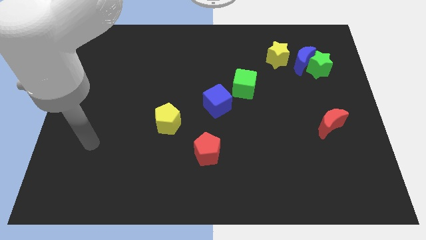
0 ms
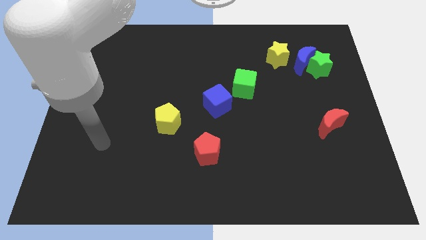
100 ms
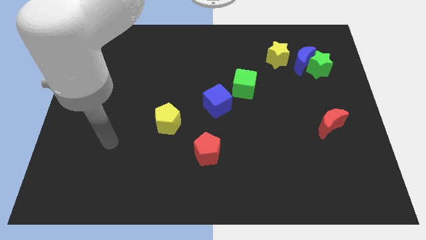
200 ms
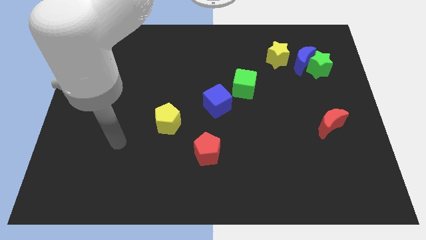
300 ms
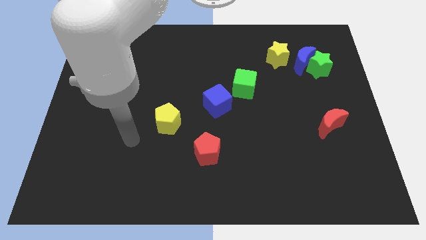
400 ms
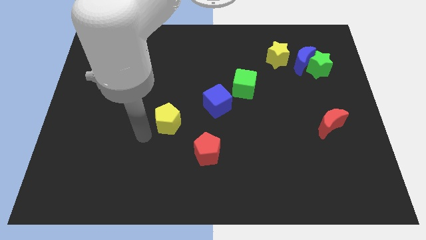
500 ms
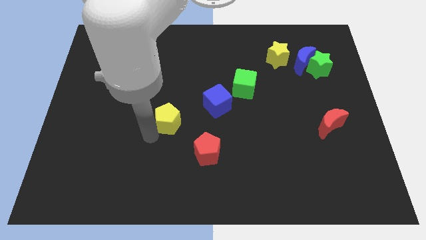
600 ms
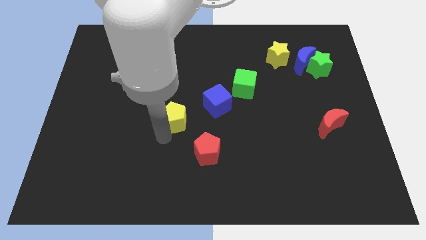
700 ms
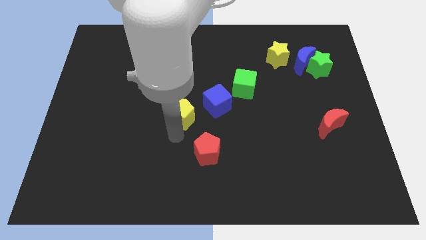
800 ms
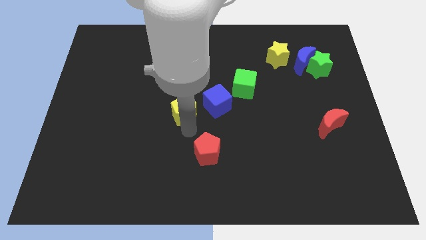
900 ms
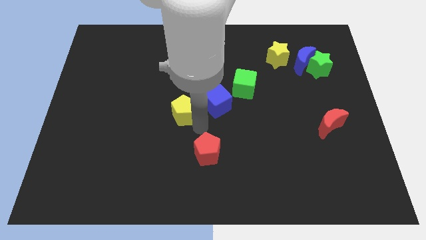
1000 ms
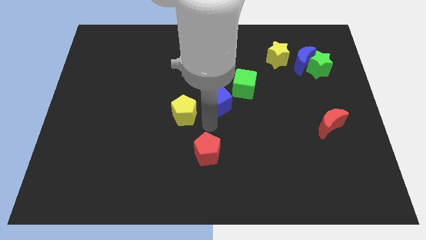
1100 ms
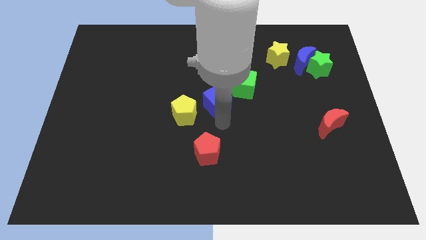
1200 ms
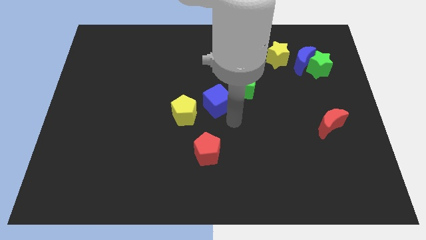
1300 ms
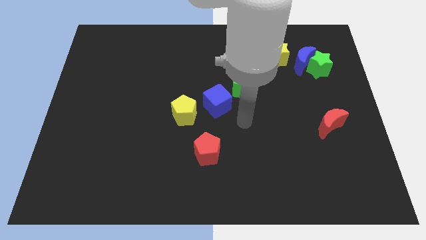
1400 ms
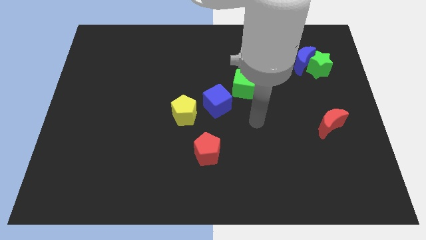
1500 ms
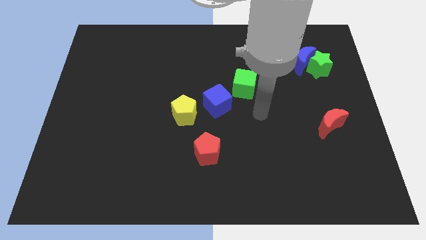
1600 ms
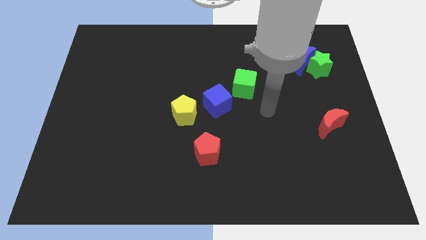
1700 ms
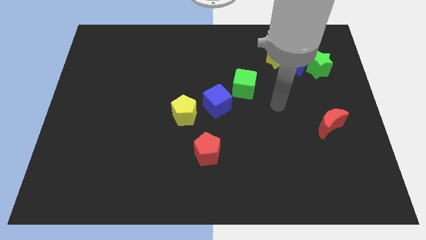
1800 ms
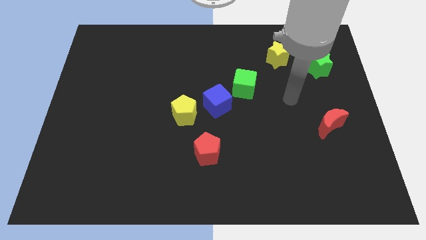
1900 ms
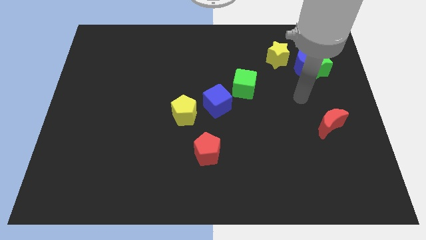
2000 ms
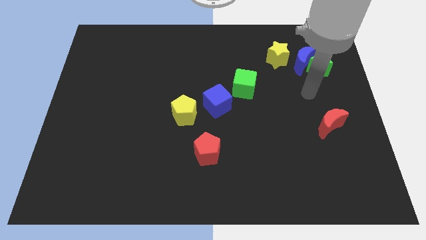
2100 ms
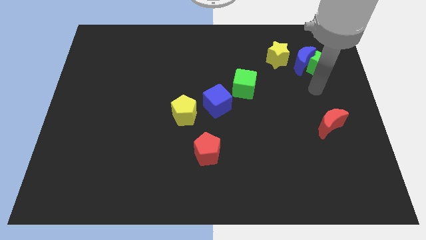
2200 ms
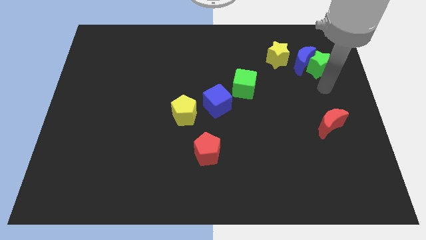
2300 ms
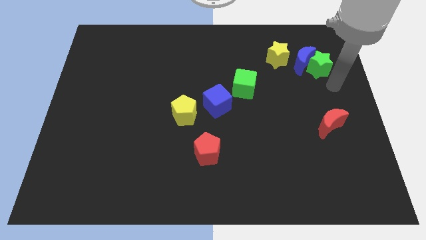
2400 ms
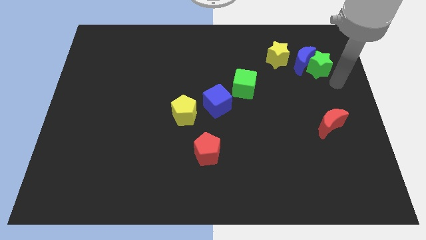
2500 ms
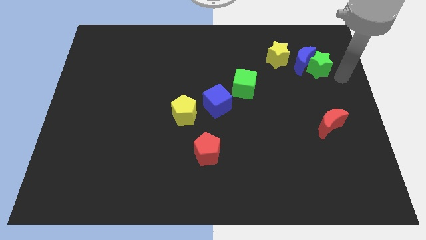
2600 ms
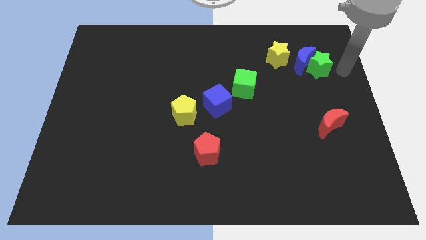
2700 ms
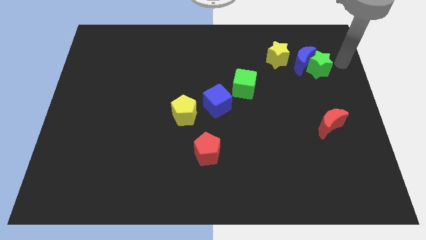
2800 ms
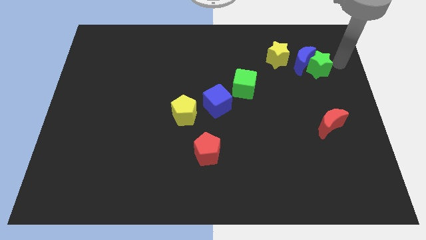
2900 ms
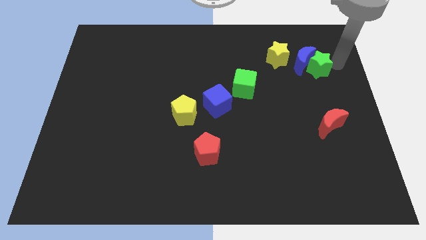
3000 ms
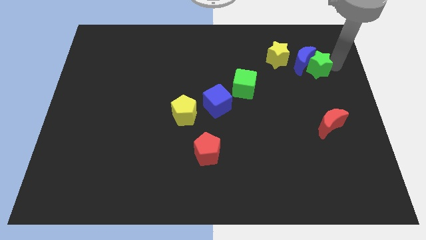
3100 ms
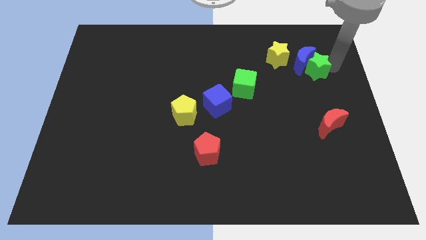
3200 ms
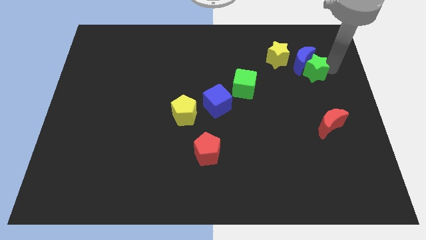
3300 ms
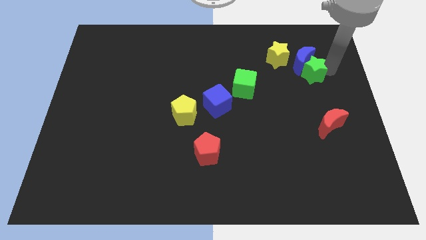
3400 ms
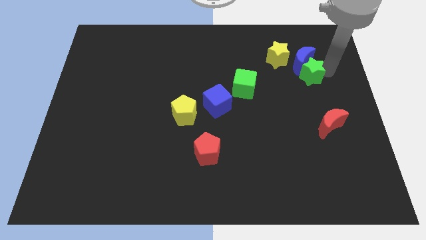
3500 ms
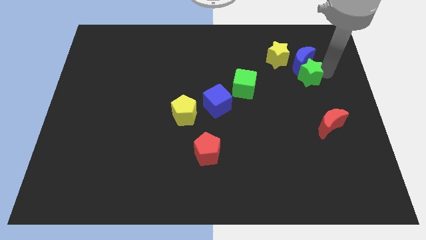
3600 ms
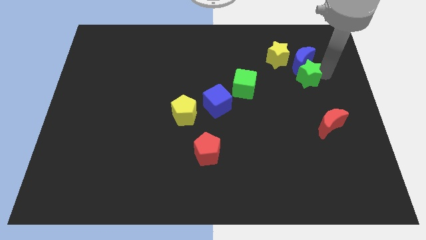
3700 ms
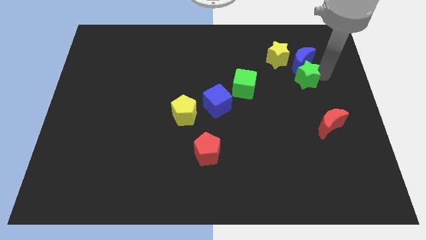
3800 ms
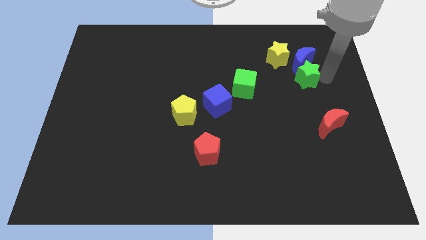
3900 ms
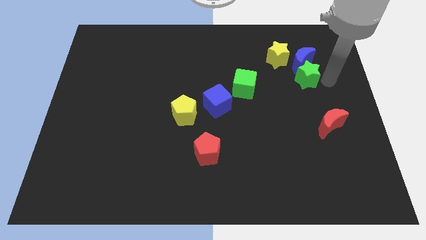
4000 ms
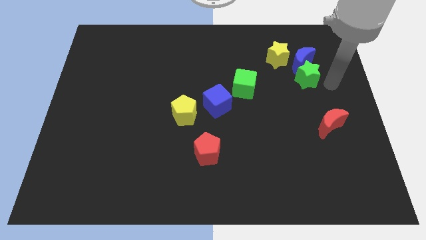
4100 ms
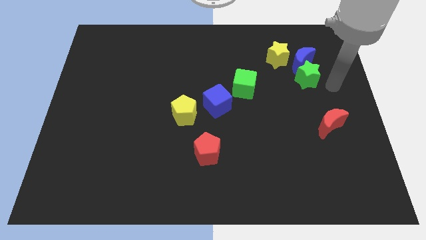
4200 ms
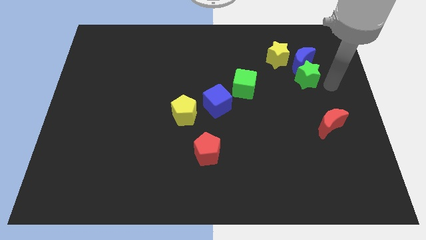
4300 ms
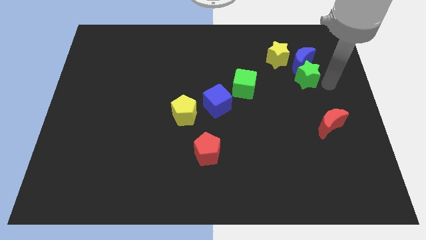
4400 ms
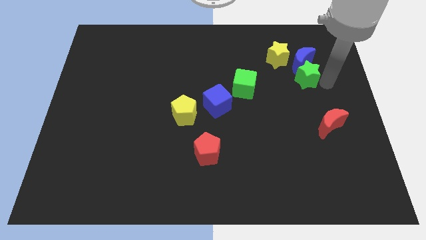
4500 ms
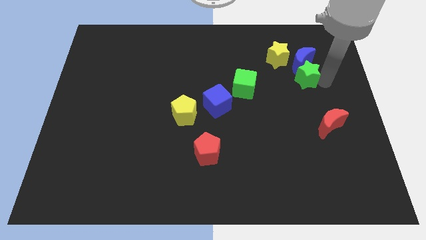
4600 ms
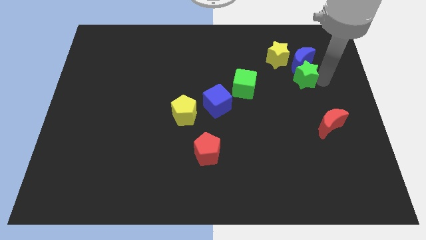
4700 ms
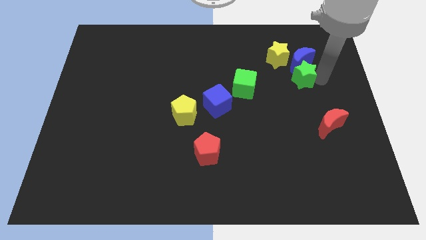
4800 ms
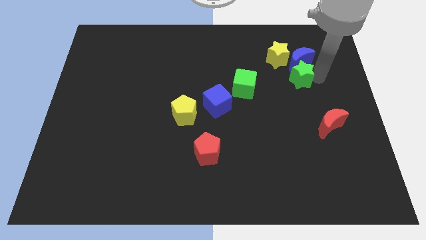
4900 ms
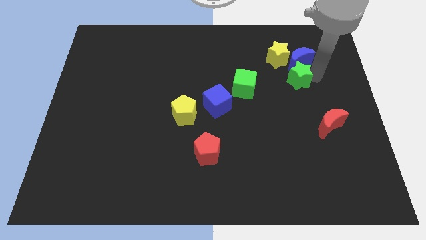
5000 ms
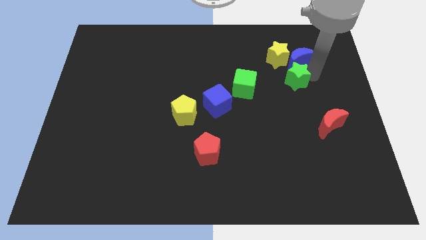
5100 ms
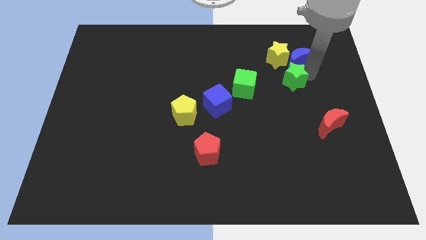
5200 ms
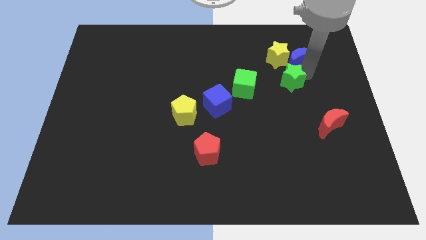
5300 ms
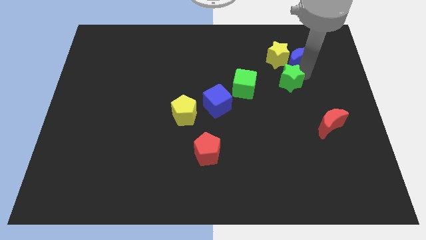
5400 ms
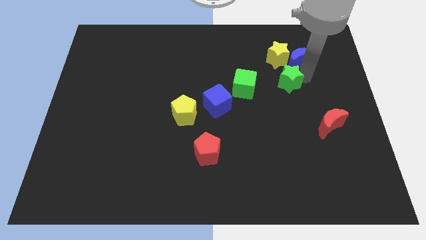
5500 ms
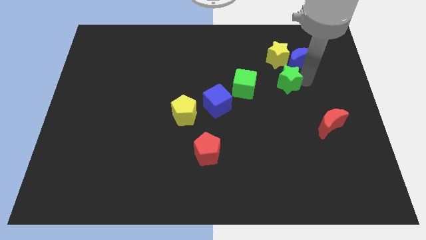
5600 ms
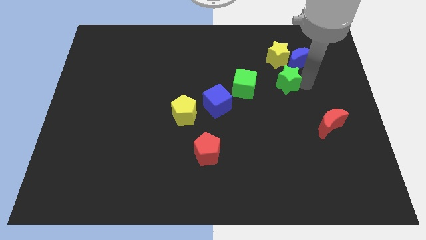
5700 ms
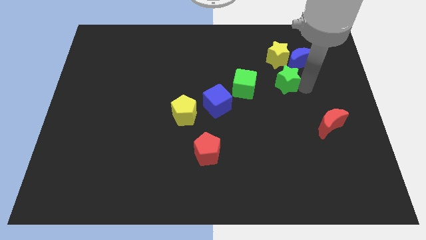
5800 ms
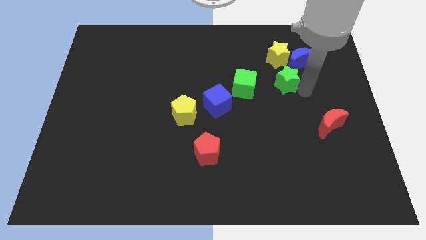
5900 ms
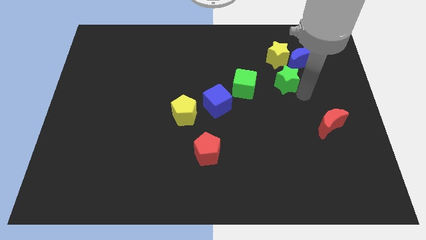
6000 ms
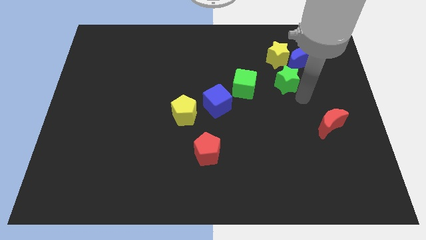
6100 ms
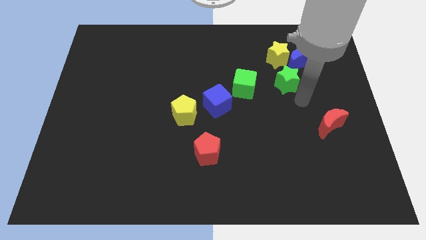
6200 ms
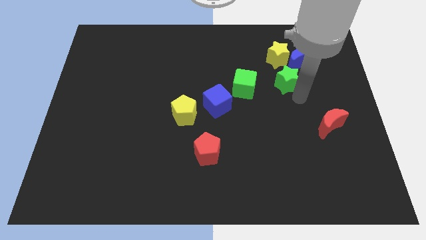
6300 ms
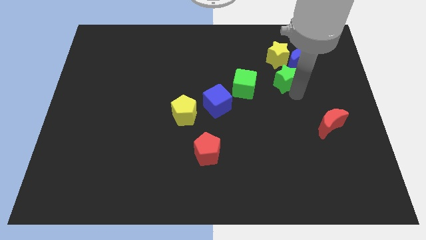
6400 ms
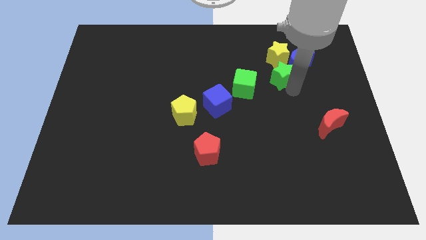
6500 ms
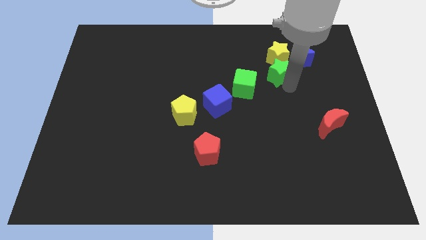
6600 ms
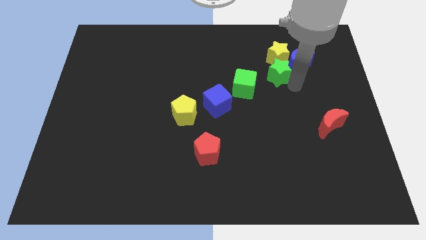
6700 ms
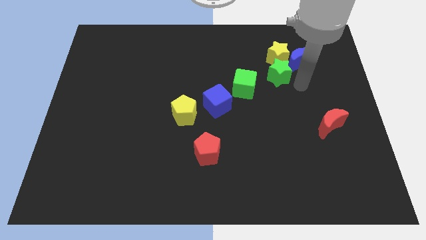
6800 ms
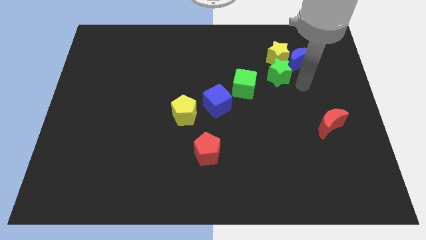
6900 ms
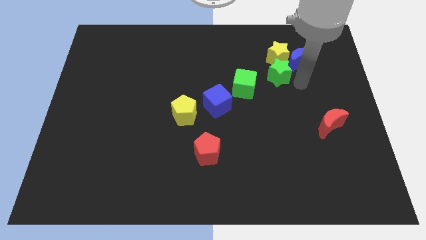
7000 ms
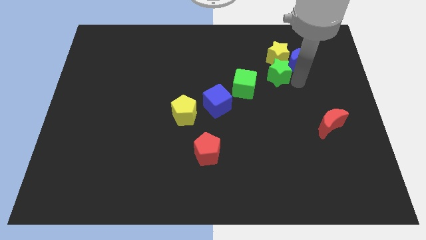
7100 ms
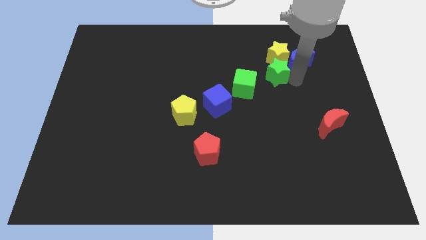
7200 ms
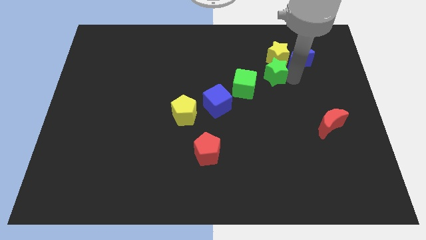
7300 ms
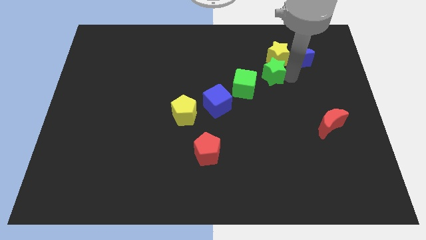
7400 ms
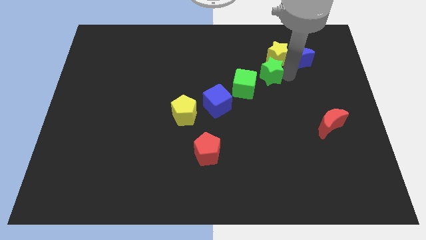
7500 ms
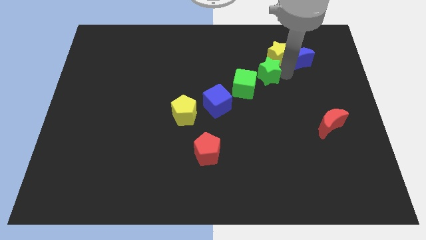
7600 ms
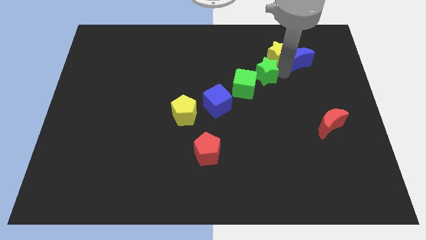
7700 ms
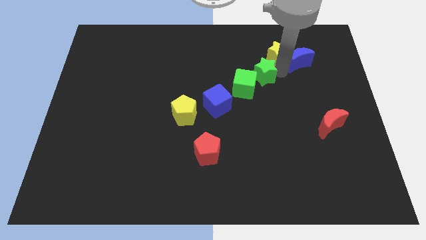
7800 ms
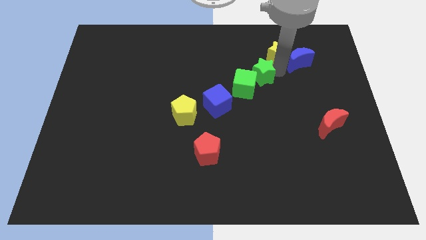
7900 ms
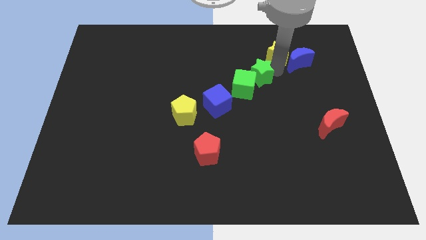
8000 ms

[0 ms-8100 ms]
push the green star to the top side of the green cube
